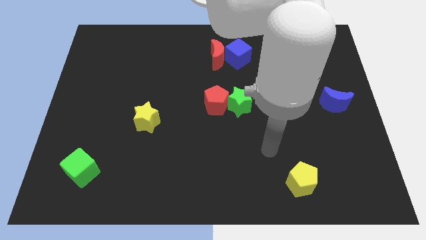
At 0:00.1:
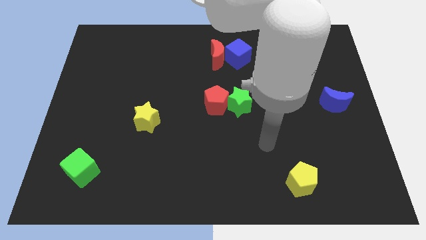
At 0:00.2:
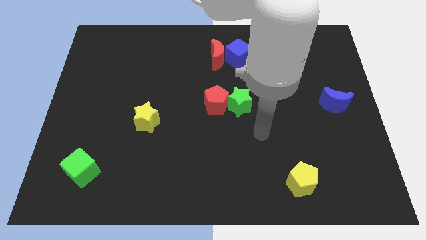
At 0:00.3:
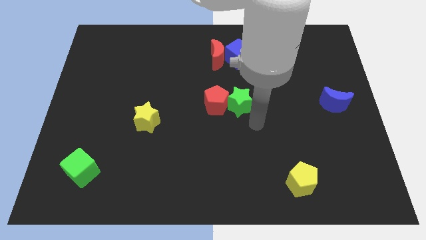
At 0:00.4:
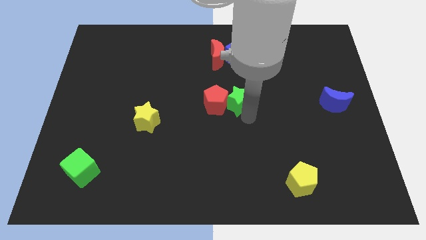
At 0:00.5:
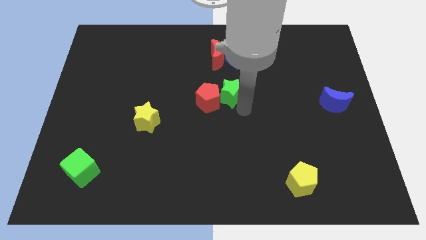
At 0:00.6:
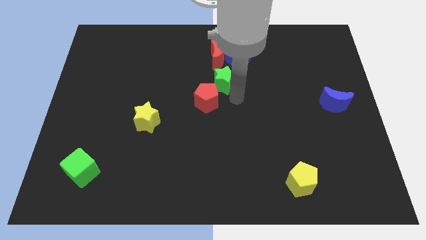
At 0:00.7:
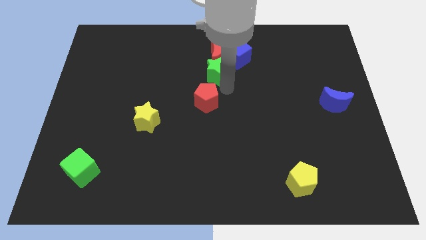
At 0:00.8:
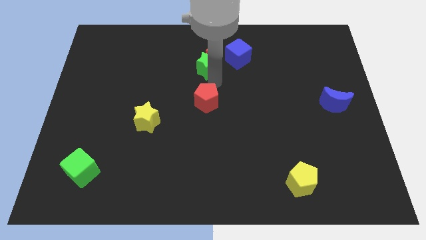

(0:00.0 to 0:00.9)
separate the red pentagon from the green star

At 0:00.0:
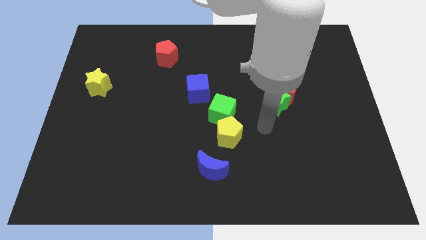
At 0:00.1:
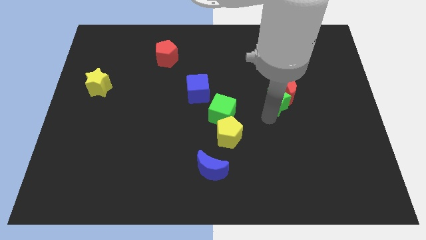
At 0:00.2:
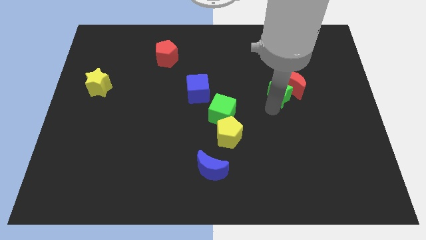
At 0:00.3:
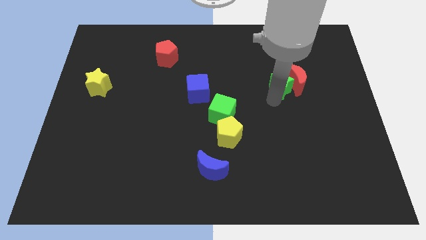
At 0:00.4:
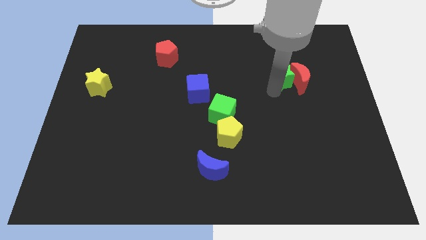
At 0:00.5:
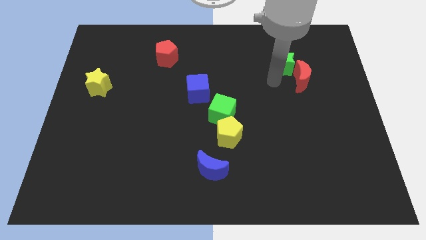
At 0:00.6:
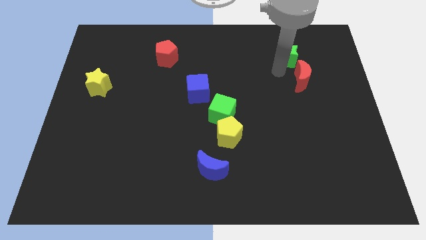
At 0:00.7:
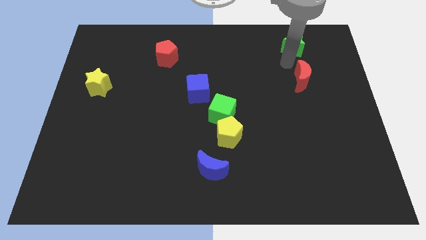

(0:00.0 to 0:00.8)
pull the red moon apart from the green star

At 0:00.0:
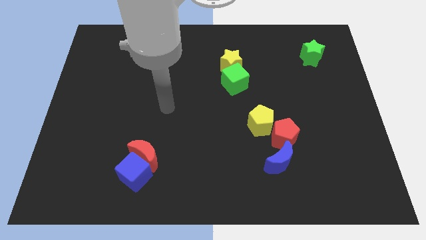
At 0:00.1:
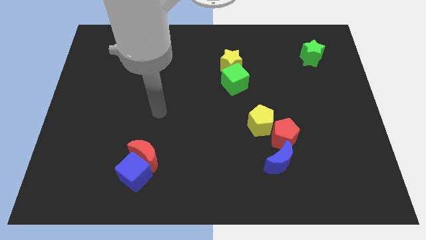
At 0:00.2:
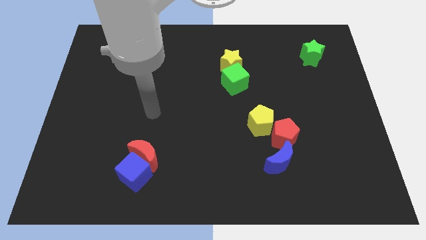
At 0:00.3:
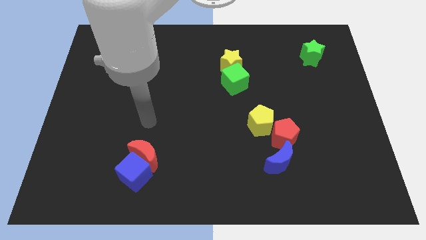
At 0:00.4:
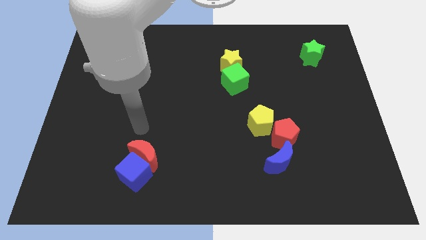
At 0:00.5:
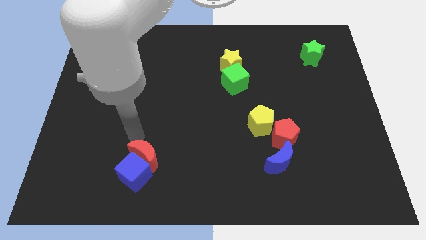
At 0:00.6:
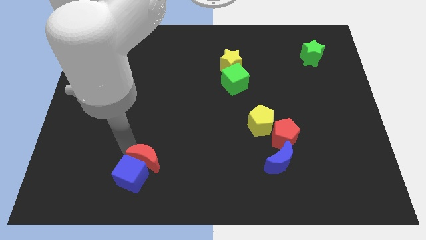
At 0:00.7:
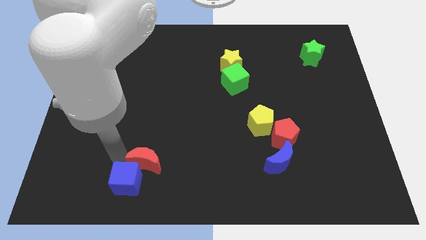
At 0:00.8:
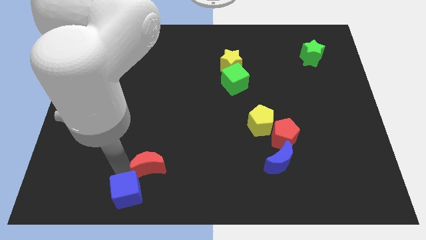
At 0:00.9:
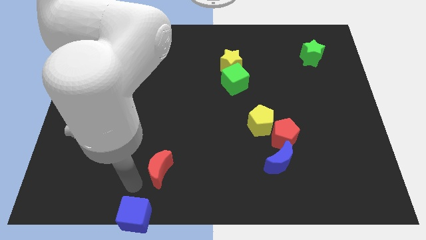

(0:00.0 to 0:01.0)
pull the red moon apart from the blue cube

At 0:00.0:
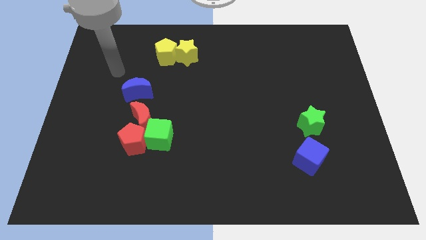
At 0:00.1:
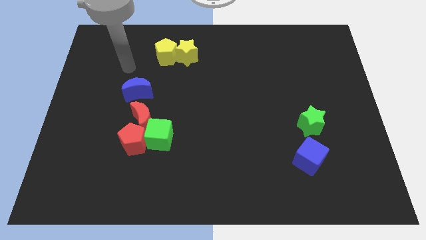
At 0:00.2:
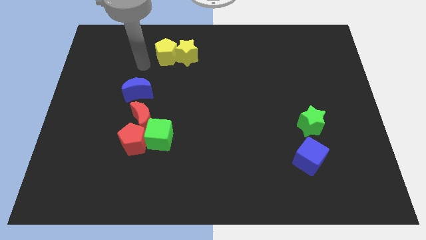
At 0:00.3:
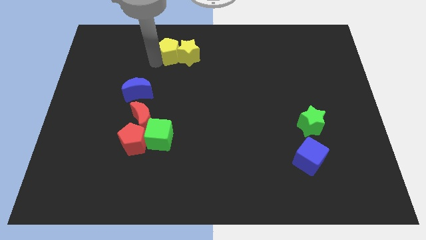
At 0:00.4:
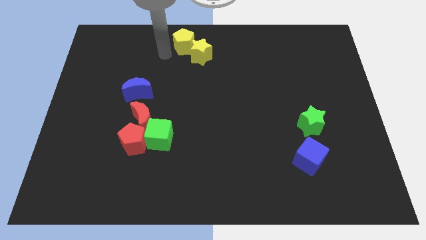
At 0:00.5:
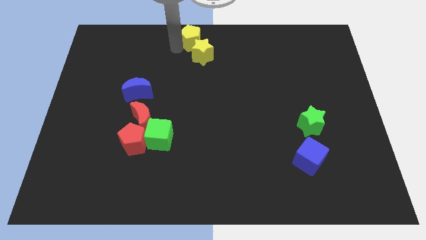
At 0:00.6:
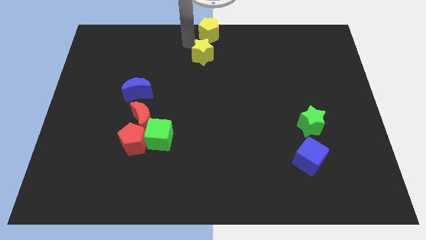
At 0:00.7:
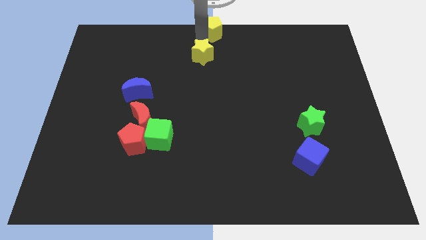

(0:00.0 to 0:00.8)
move the yellow star away from the yellow pentagon

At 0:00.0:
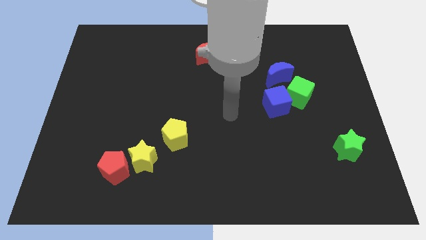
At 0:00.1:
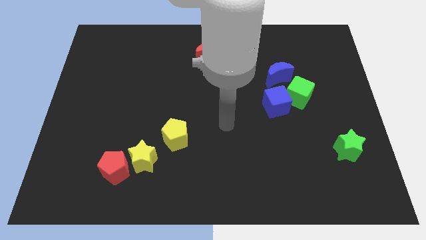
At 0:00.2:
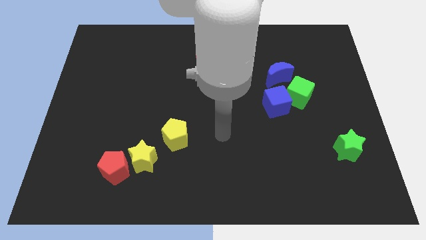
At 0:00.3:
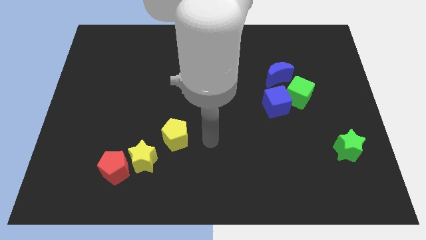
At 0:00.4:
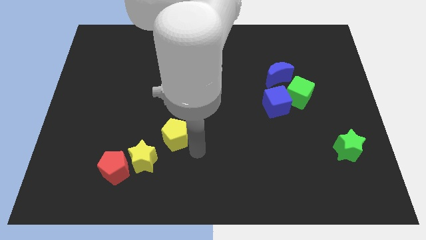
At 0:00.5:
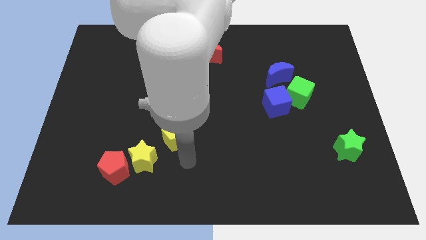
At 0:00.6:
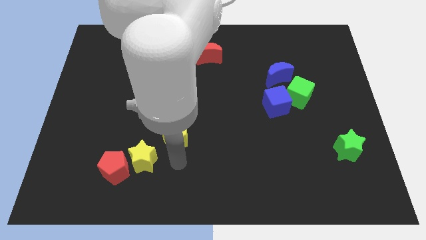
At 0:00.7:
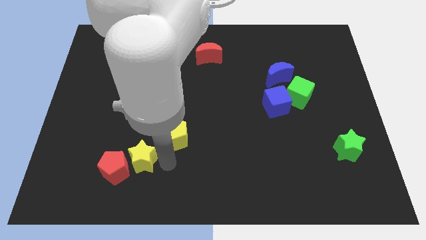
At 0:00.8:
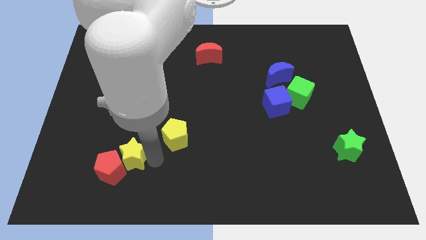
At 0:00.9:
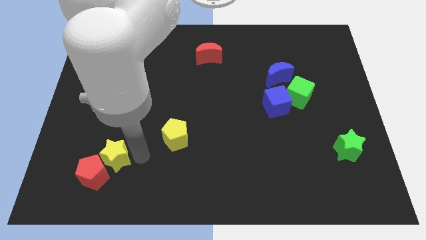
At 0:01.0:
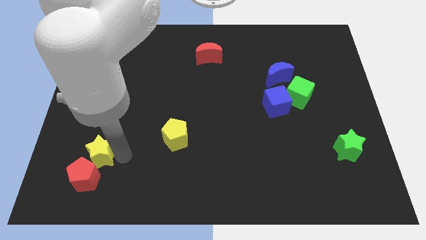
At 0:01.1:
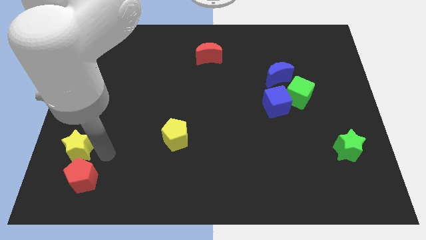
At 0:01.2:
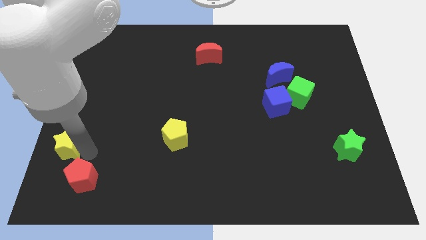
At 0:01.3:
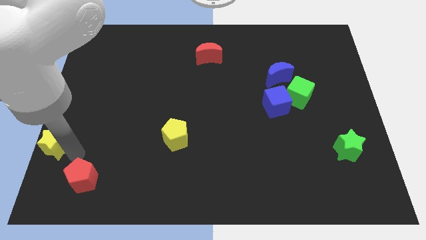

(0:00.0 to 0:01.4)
move the red pentagon away from the yellow star

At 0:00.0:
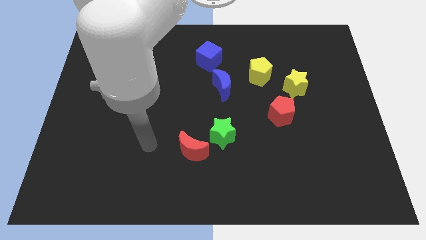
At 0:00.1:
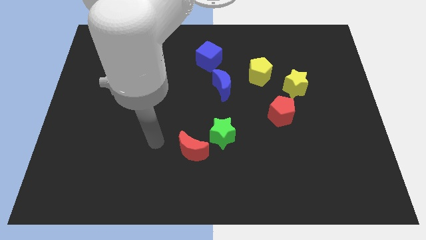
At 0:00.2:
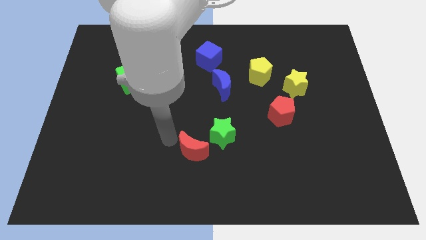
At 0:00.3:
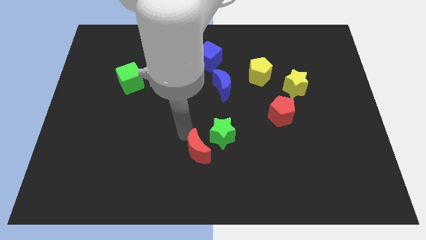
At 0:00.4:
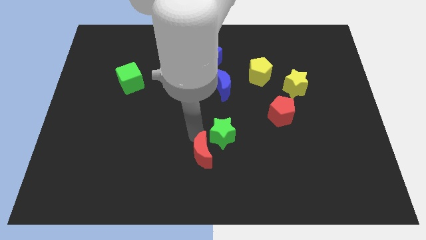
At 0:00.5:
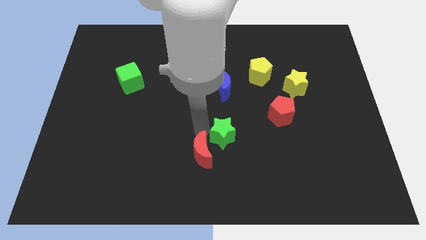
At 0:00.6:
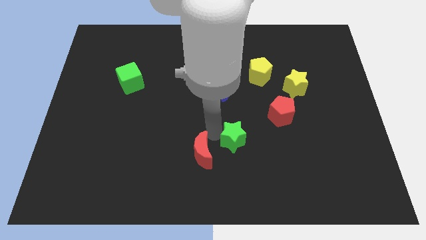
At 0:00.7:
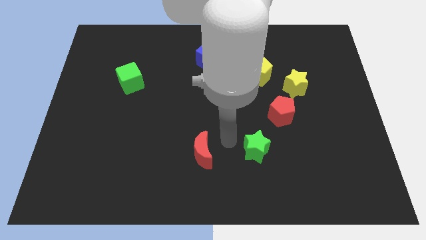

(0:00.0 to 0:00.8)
move the red moon away from the green star

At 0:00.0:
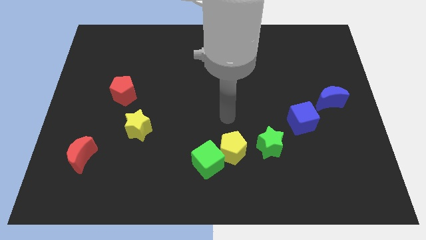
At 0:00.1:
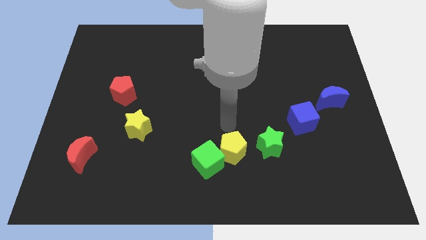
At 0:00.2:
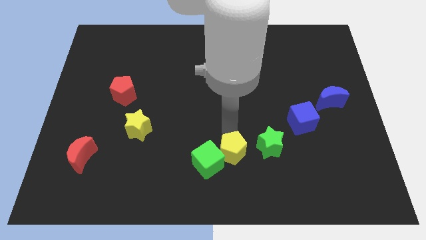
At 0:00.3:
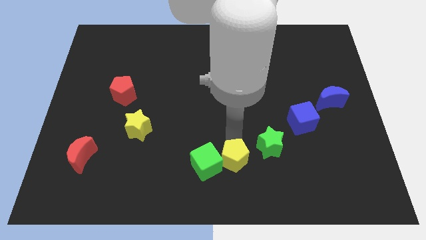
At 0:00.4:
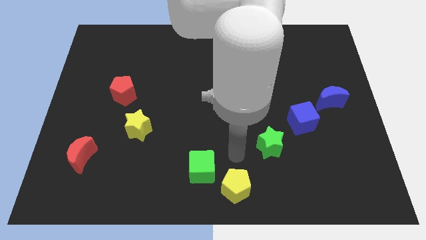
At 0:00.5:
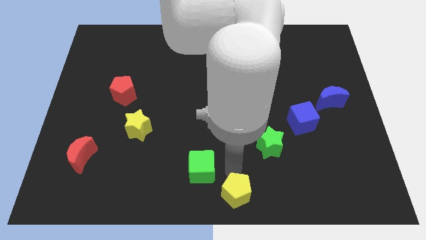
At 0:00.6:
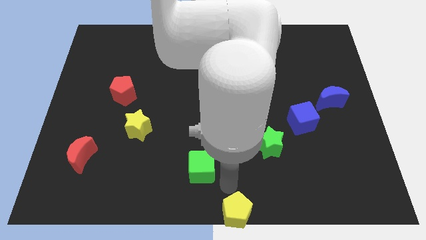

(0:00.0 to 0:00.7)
separate the green cube from the yellow pentagon

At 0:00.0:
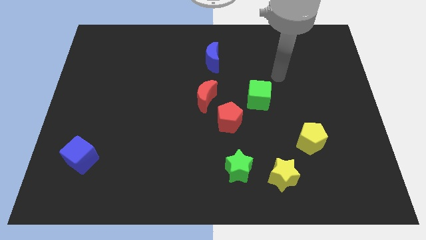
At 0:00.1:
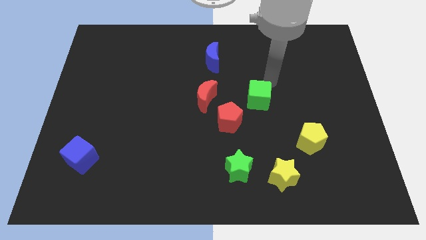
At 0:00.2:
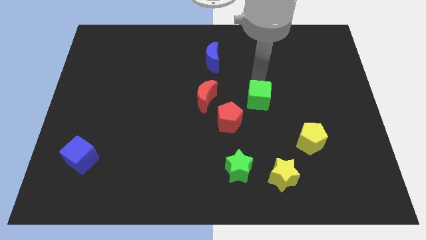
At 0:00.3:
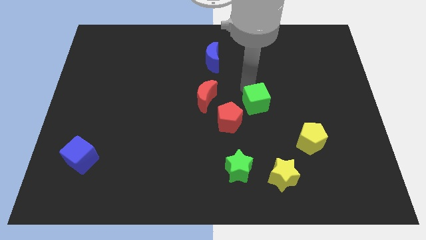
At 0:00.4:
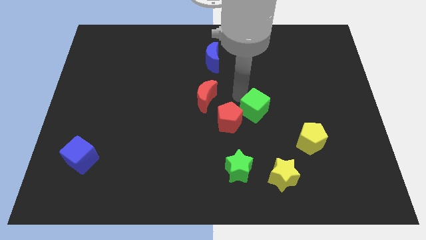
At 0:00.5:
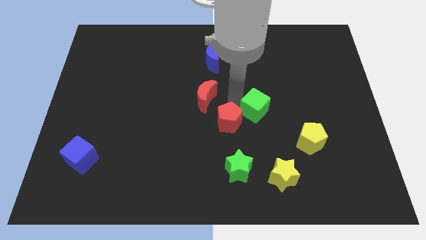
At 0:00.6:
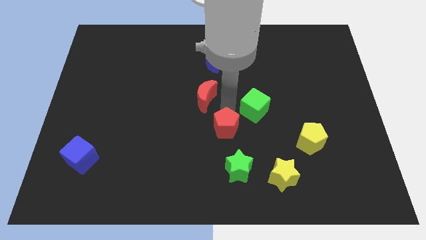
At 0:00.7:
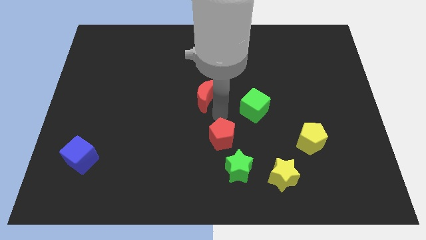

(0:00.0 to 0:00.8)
move the red moon away from the red pentagon

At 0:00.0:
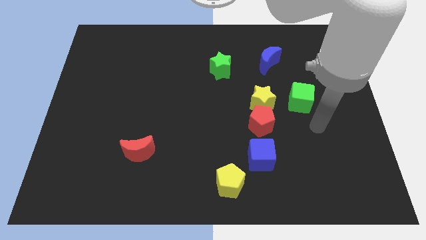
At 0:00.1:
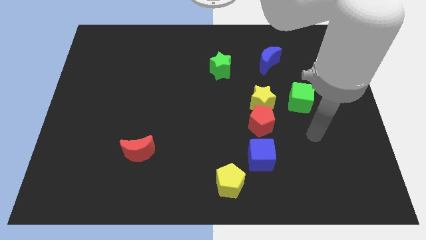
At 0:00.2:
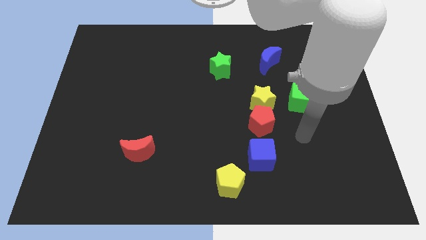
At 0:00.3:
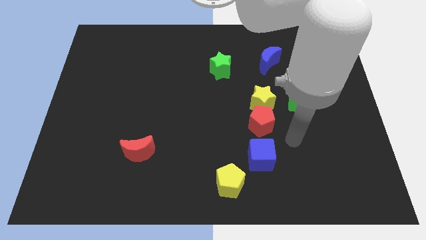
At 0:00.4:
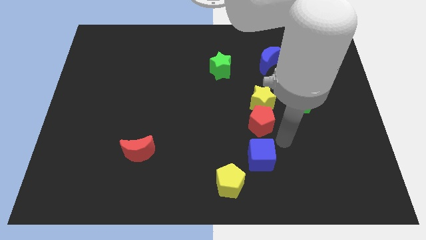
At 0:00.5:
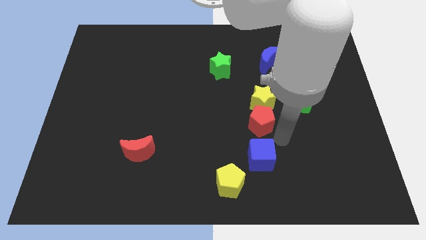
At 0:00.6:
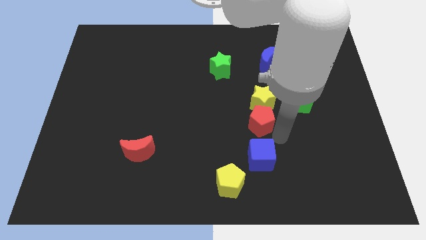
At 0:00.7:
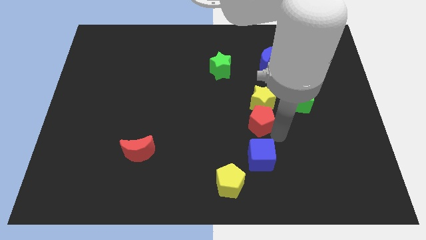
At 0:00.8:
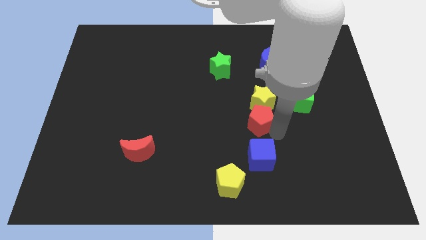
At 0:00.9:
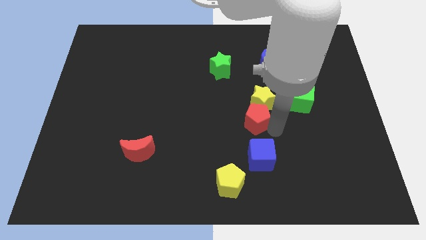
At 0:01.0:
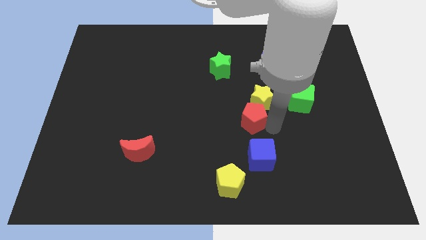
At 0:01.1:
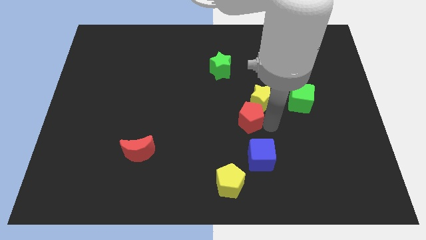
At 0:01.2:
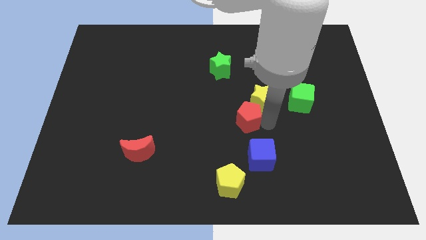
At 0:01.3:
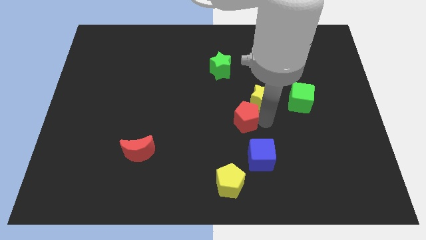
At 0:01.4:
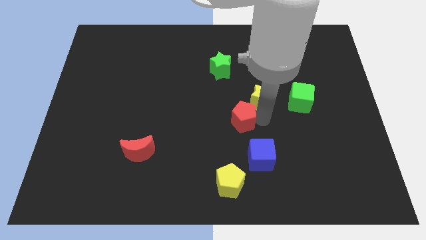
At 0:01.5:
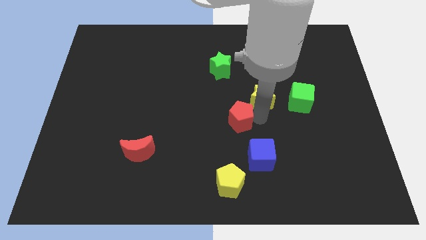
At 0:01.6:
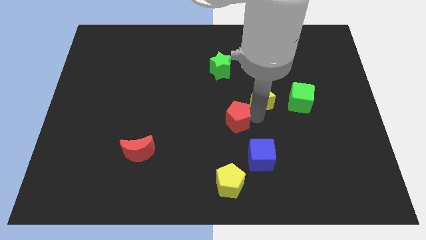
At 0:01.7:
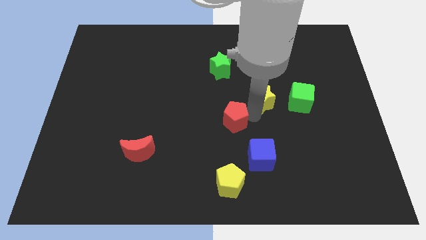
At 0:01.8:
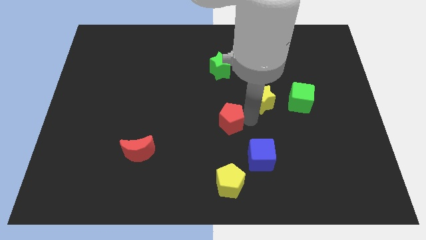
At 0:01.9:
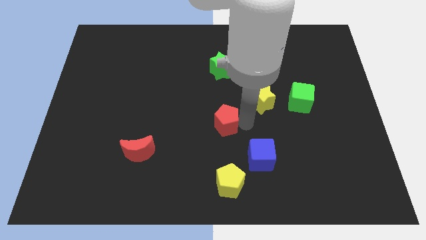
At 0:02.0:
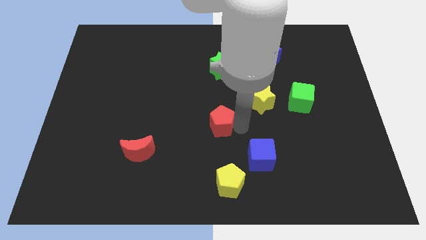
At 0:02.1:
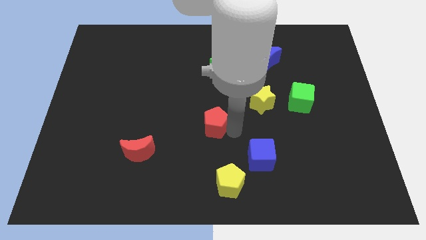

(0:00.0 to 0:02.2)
separate the red pentagon from the yellow star and blue cube
